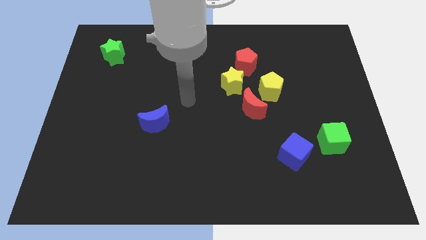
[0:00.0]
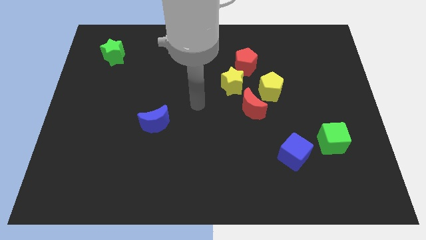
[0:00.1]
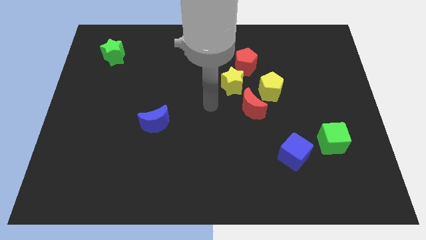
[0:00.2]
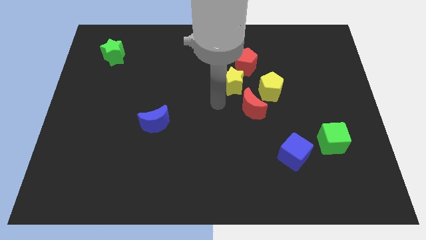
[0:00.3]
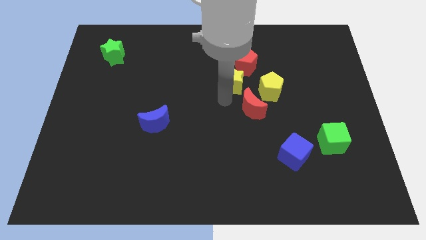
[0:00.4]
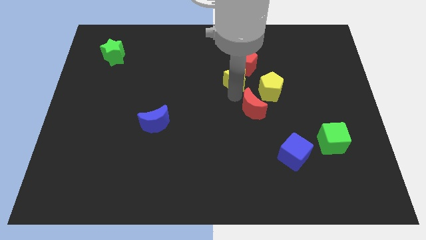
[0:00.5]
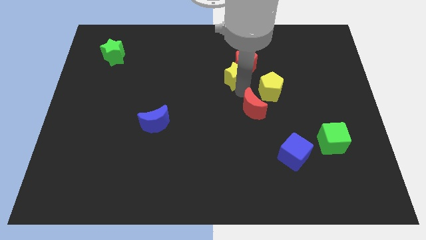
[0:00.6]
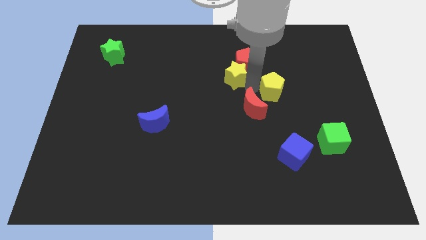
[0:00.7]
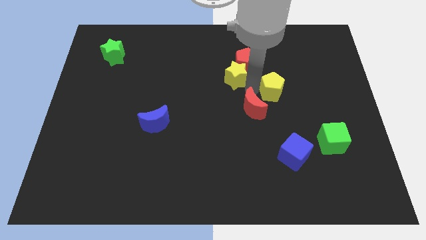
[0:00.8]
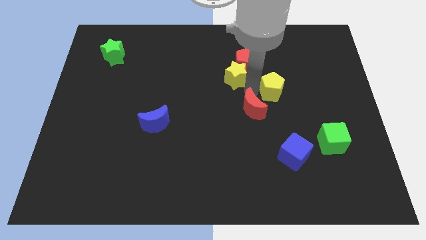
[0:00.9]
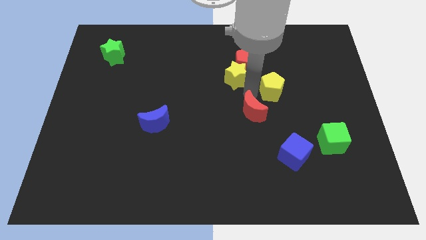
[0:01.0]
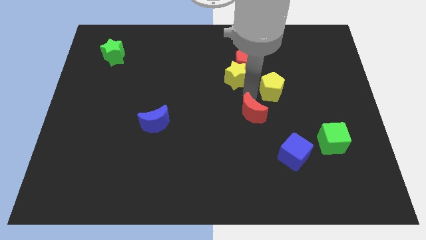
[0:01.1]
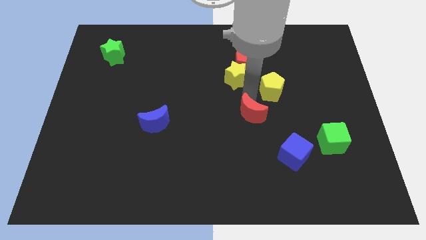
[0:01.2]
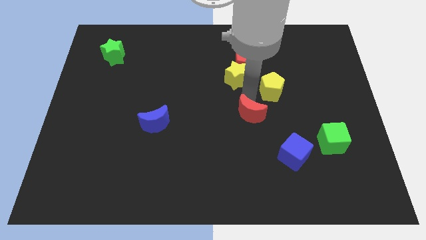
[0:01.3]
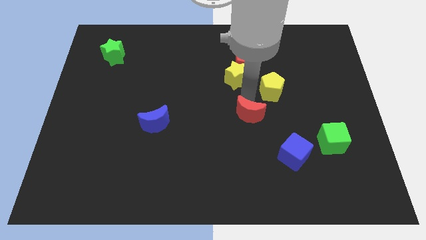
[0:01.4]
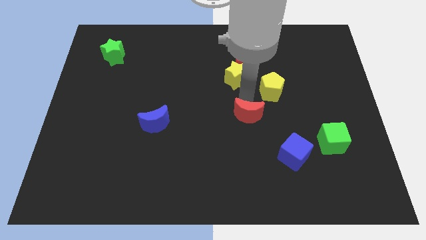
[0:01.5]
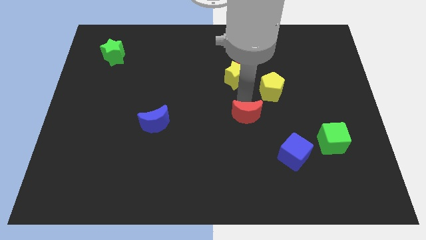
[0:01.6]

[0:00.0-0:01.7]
move the red moon away from the yellow pentagon and yellow star

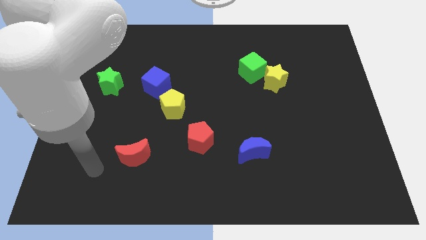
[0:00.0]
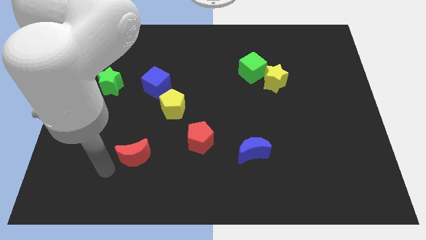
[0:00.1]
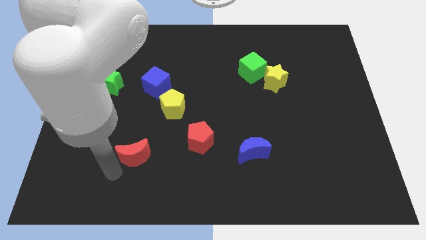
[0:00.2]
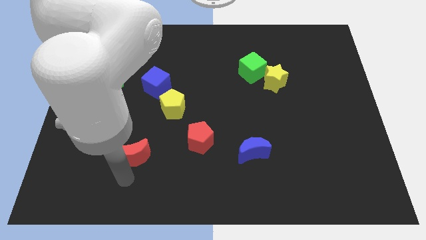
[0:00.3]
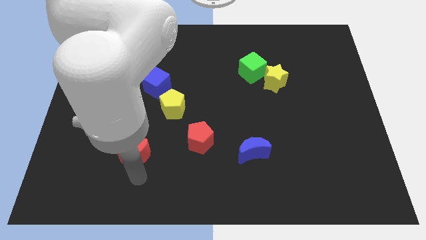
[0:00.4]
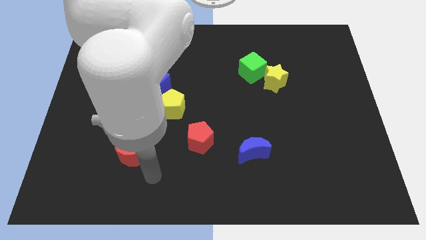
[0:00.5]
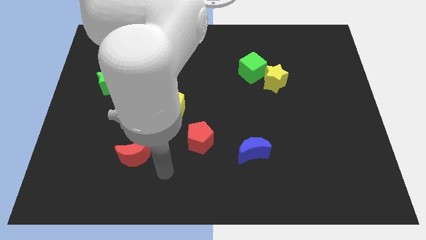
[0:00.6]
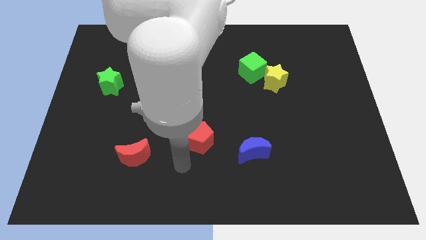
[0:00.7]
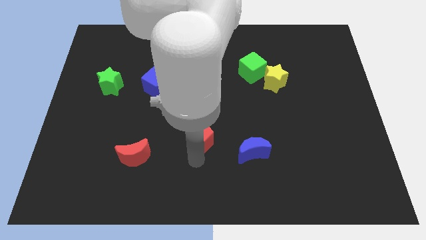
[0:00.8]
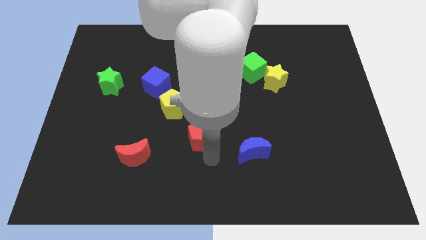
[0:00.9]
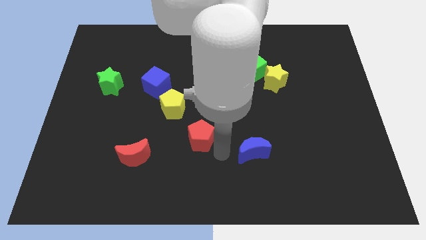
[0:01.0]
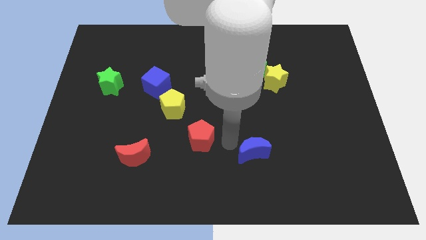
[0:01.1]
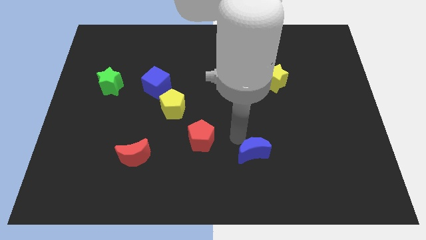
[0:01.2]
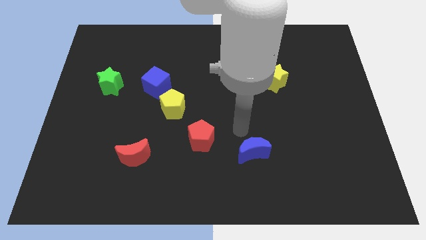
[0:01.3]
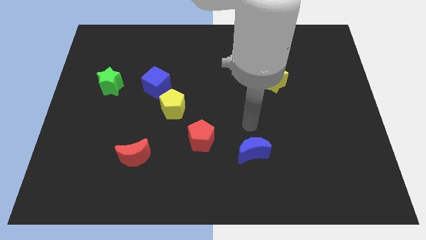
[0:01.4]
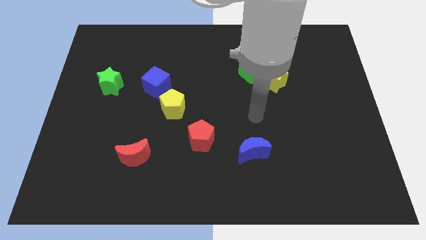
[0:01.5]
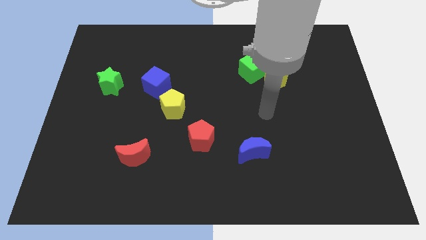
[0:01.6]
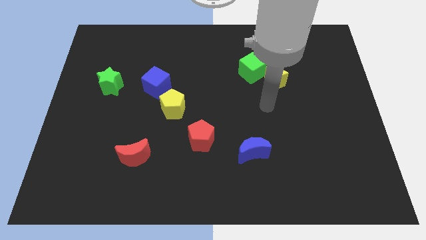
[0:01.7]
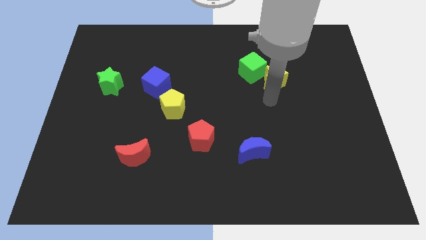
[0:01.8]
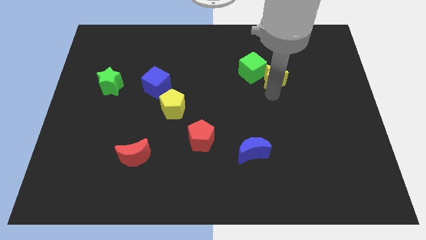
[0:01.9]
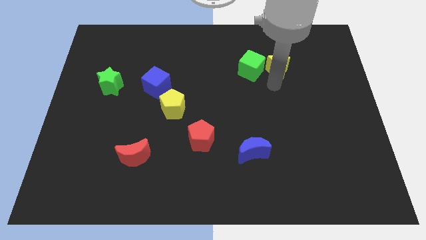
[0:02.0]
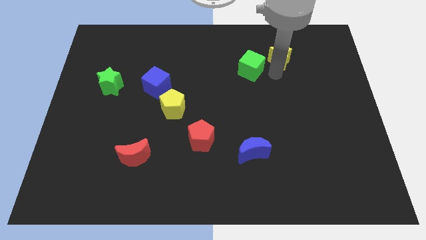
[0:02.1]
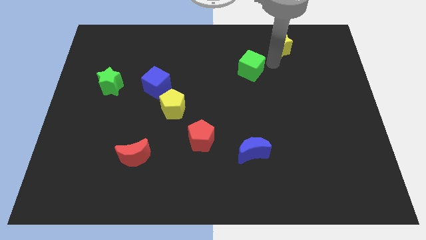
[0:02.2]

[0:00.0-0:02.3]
separate the green cube from the yellow star

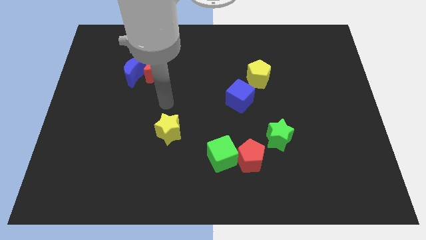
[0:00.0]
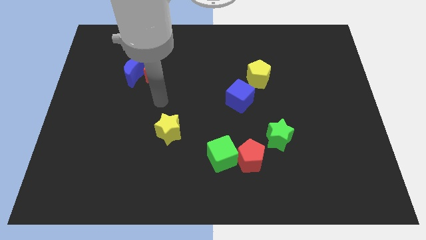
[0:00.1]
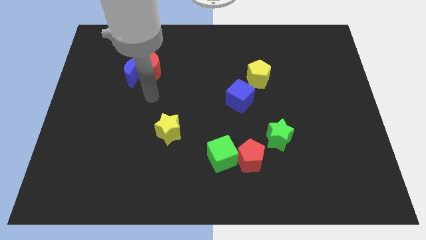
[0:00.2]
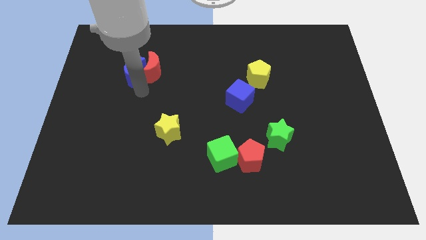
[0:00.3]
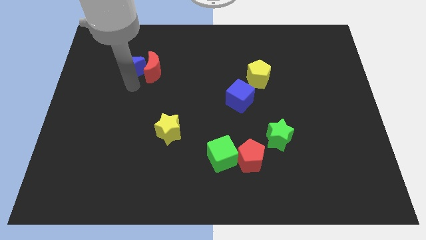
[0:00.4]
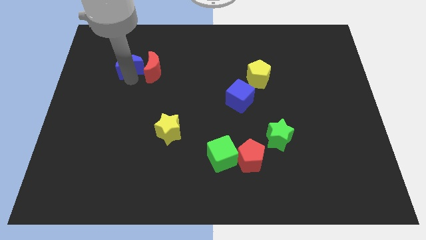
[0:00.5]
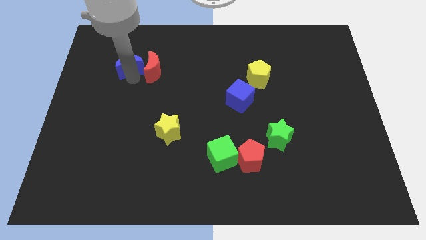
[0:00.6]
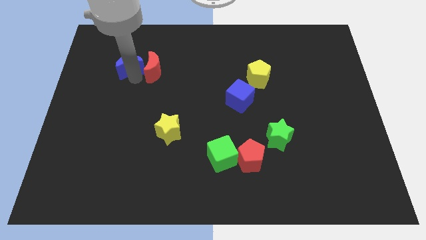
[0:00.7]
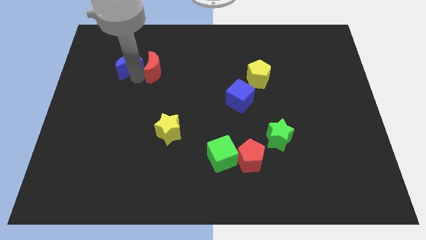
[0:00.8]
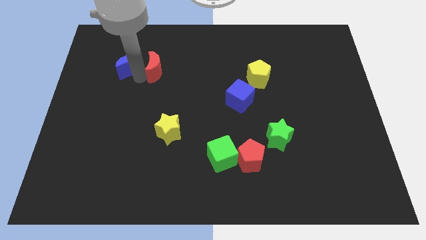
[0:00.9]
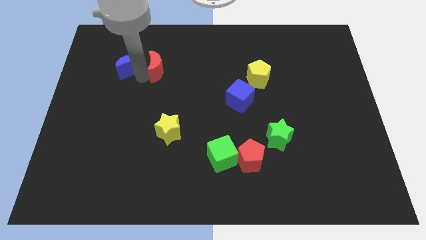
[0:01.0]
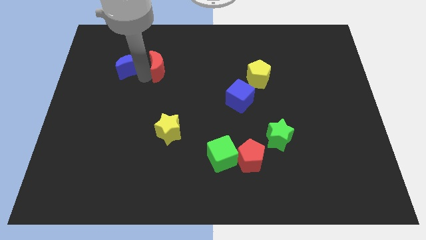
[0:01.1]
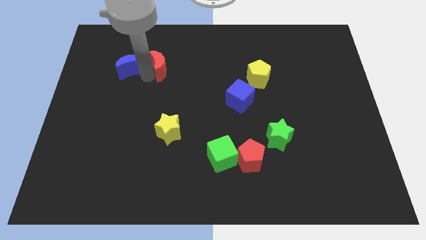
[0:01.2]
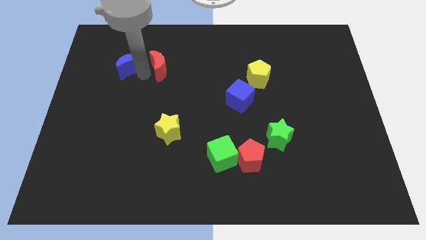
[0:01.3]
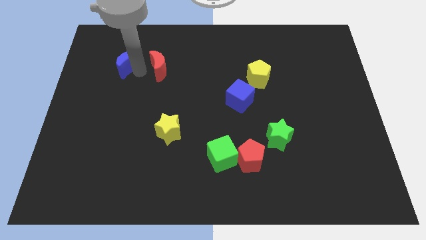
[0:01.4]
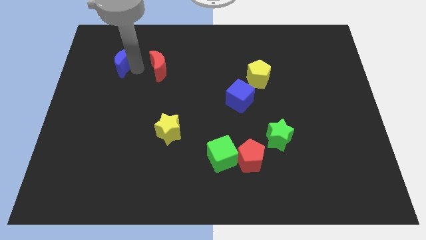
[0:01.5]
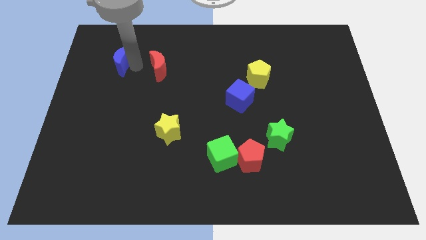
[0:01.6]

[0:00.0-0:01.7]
separate the red moon from the blue moon

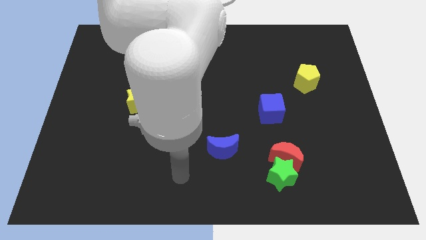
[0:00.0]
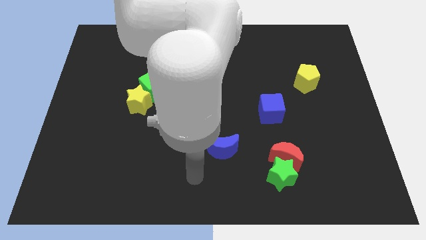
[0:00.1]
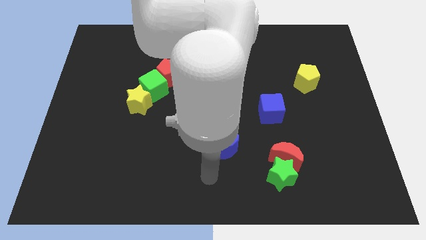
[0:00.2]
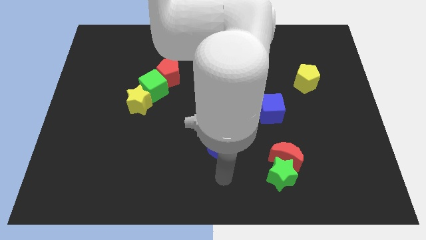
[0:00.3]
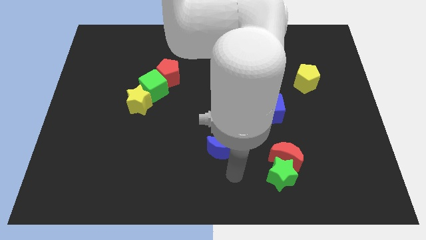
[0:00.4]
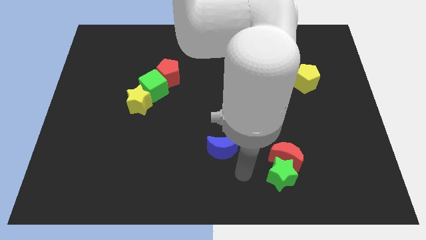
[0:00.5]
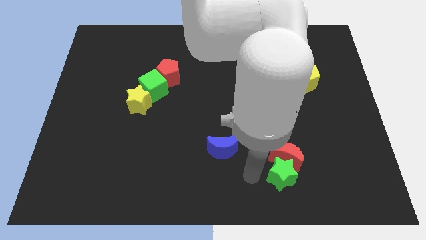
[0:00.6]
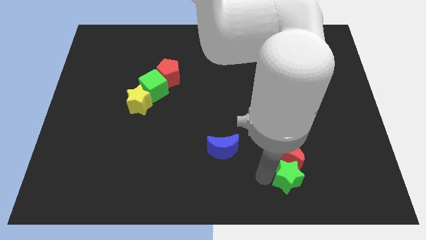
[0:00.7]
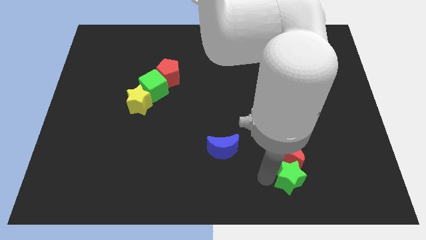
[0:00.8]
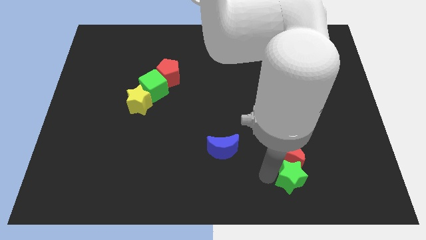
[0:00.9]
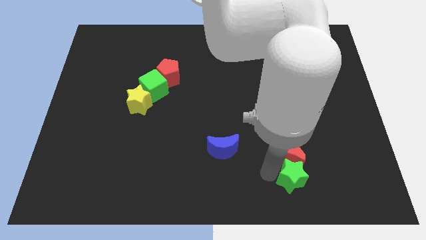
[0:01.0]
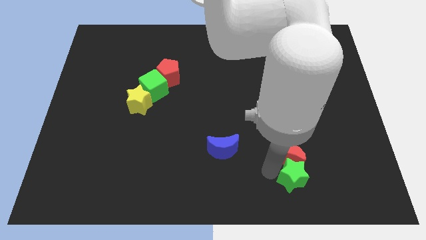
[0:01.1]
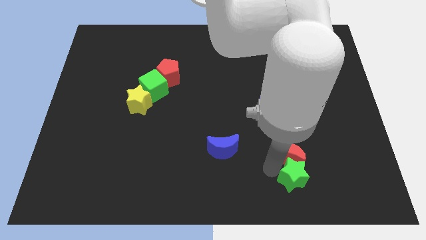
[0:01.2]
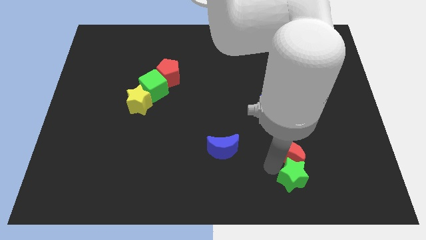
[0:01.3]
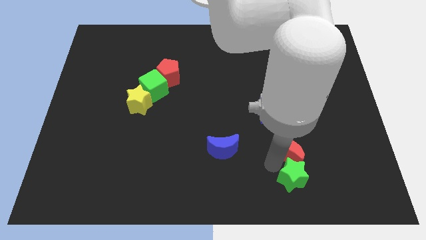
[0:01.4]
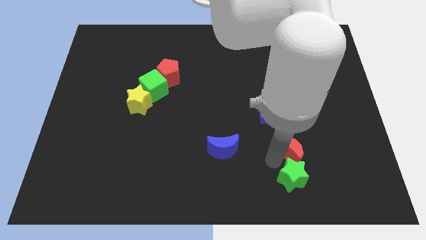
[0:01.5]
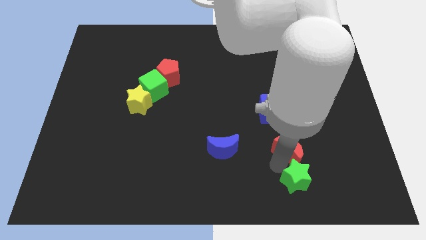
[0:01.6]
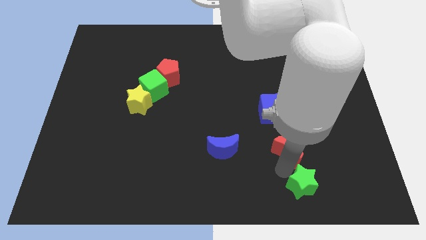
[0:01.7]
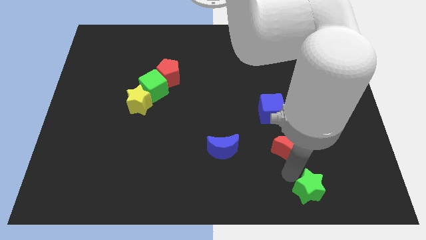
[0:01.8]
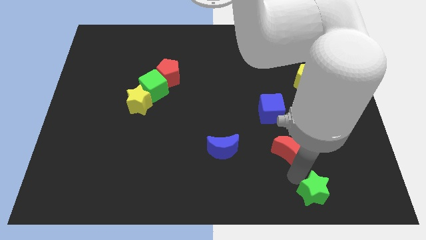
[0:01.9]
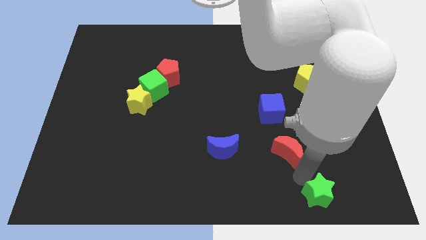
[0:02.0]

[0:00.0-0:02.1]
move the red moon away from the green star

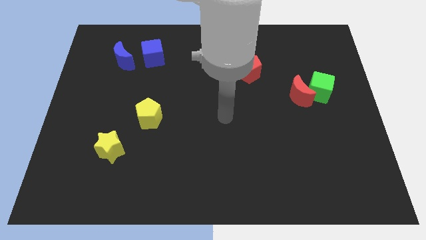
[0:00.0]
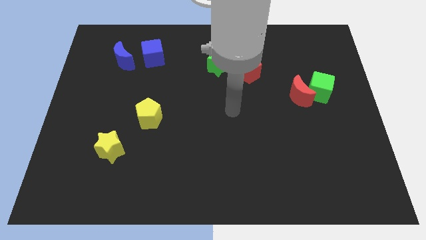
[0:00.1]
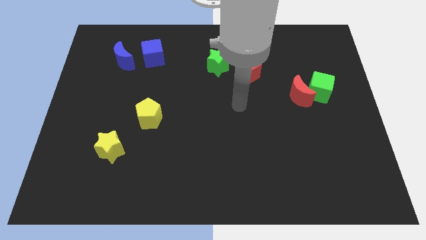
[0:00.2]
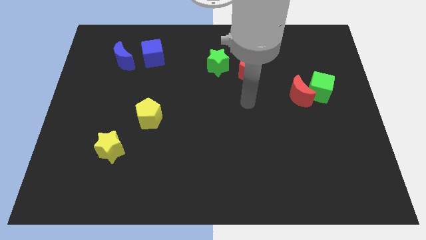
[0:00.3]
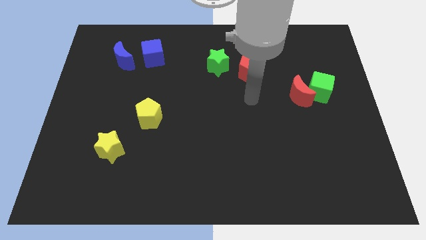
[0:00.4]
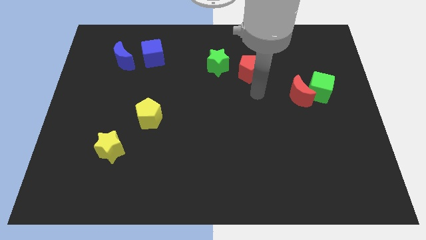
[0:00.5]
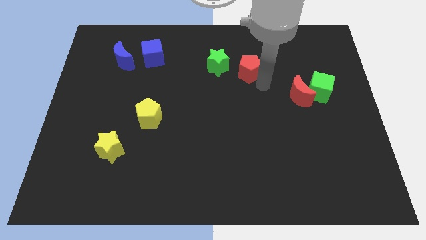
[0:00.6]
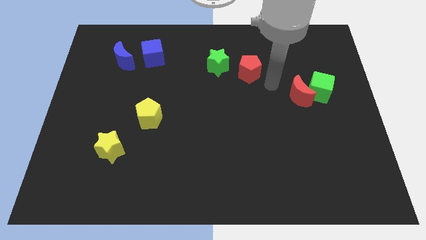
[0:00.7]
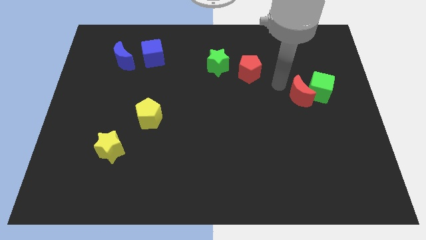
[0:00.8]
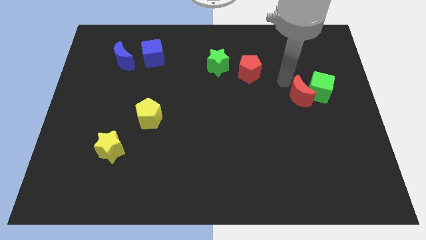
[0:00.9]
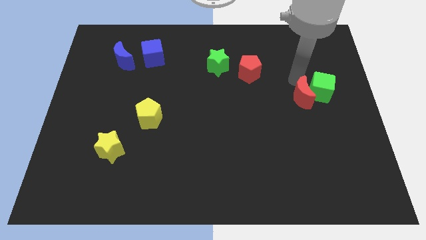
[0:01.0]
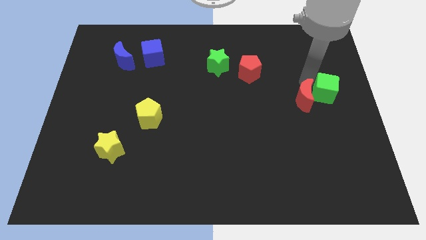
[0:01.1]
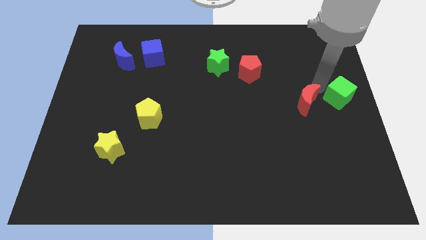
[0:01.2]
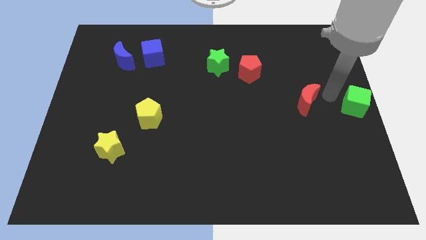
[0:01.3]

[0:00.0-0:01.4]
pull the red moon apart from the green cube
